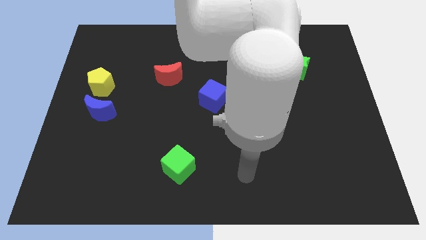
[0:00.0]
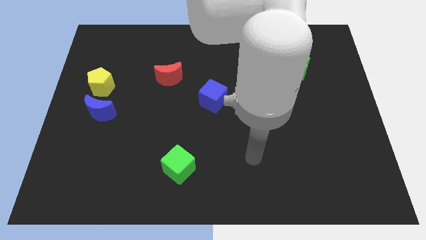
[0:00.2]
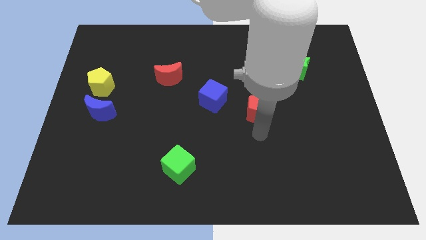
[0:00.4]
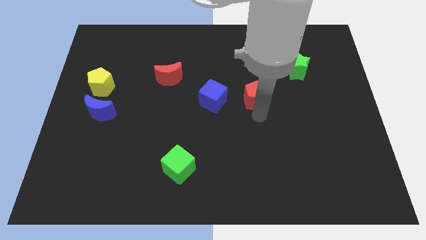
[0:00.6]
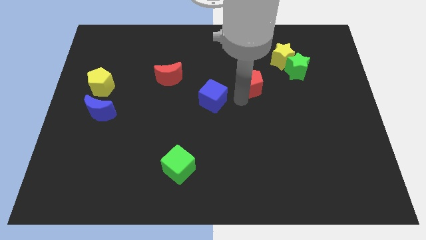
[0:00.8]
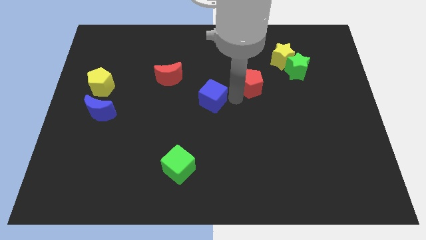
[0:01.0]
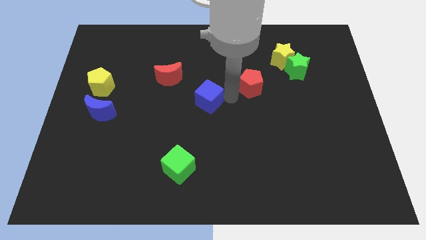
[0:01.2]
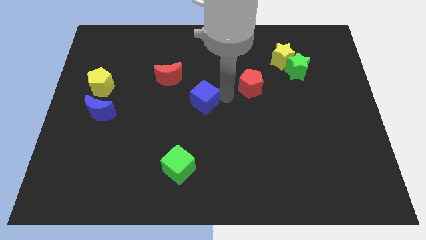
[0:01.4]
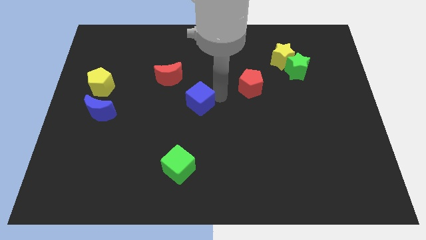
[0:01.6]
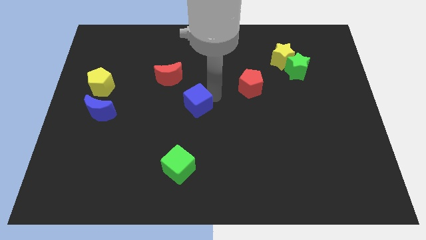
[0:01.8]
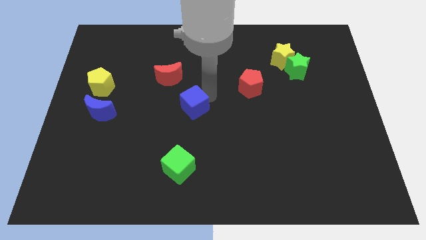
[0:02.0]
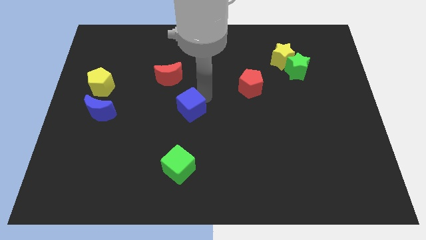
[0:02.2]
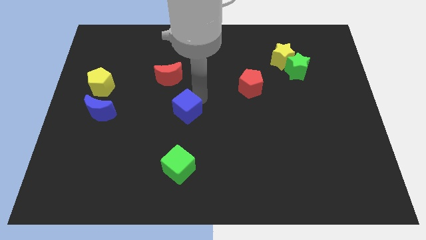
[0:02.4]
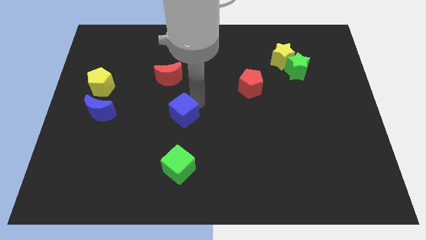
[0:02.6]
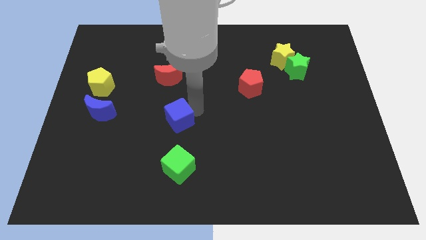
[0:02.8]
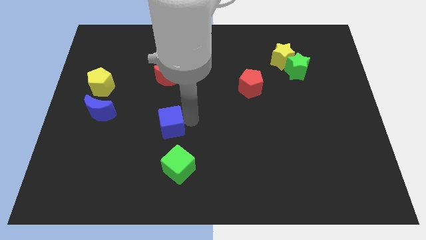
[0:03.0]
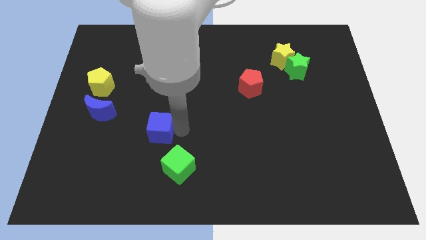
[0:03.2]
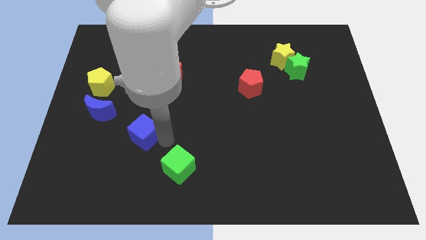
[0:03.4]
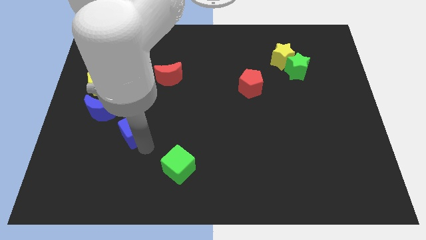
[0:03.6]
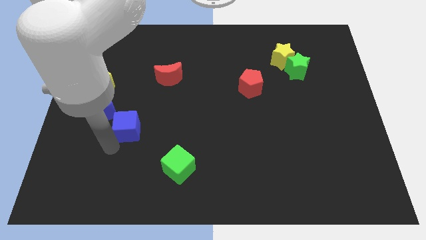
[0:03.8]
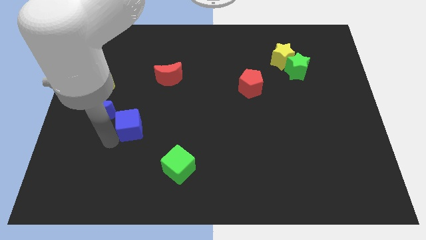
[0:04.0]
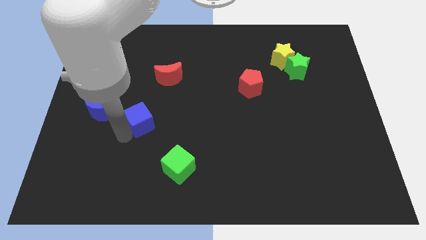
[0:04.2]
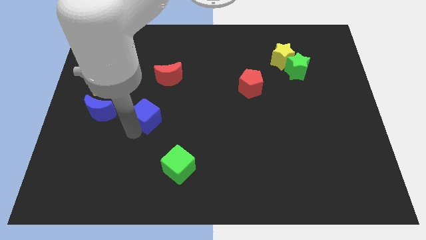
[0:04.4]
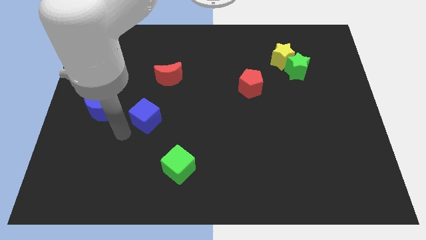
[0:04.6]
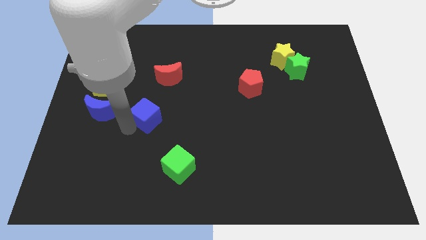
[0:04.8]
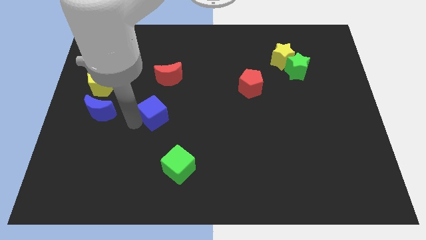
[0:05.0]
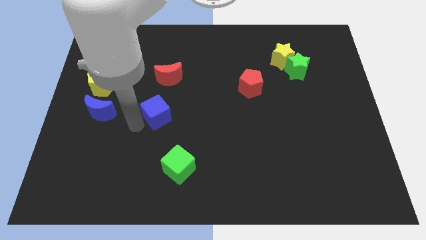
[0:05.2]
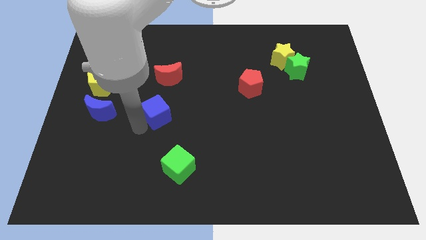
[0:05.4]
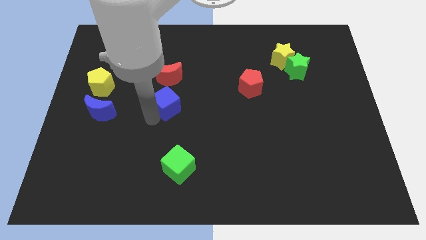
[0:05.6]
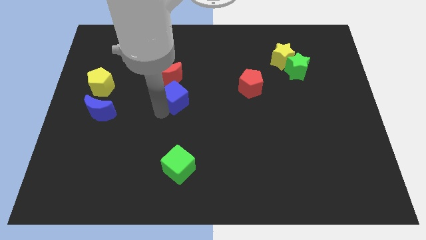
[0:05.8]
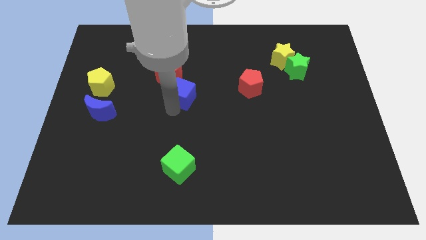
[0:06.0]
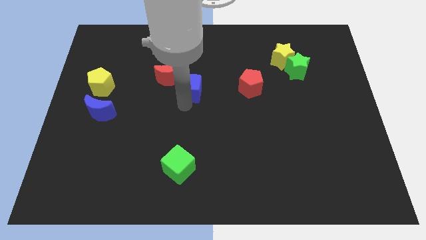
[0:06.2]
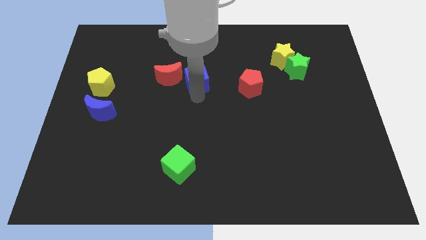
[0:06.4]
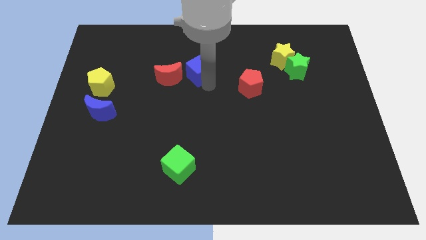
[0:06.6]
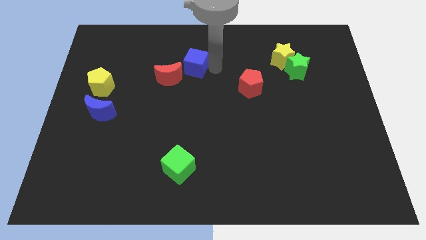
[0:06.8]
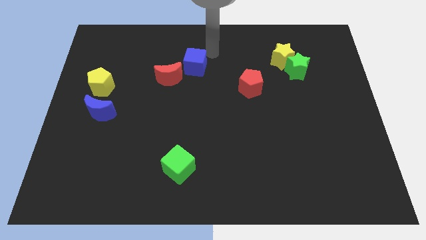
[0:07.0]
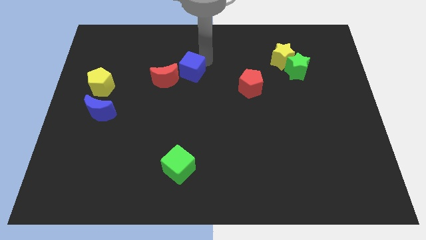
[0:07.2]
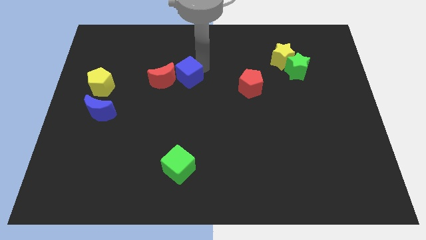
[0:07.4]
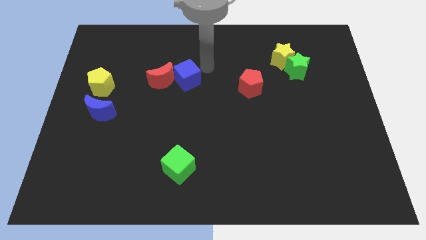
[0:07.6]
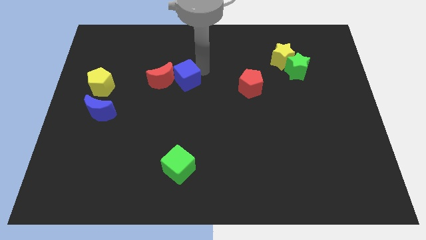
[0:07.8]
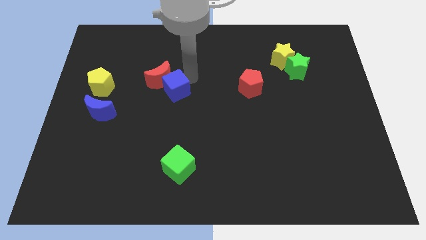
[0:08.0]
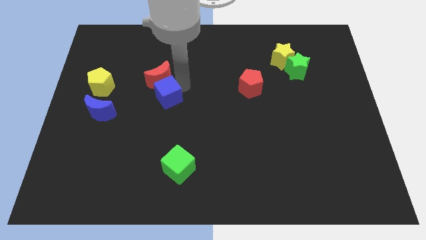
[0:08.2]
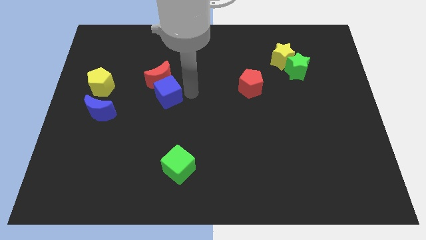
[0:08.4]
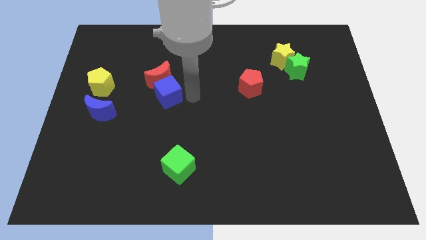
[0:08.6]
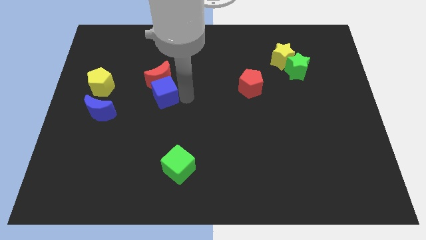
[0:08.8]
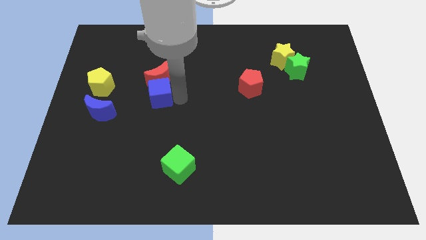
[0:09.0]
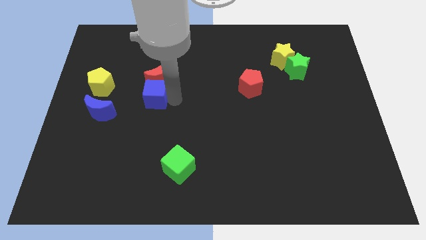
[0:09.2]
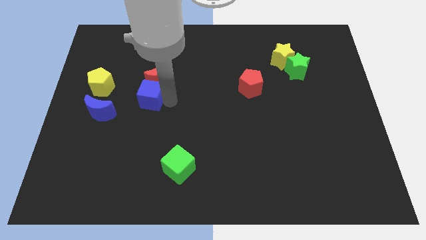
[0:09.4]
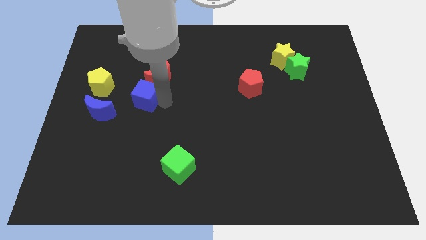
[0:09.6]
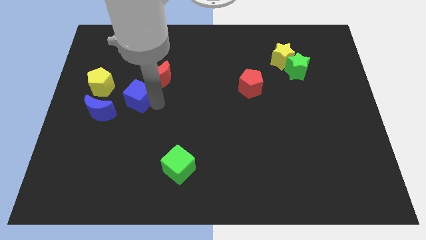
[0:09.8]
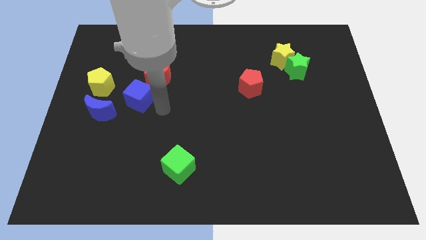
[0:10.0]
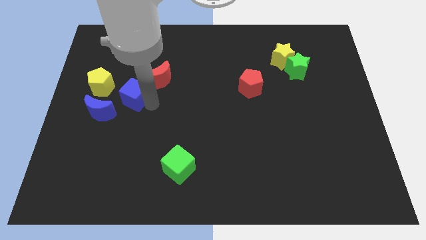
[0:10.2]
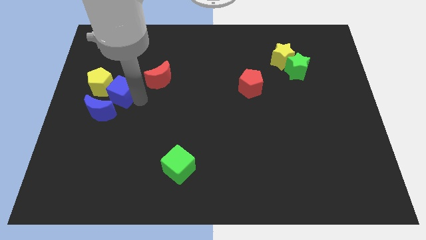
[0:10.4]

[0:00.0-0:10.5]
move the blue cube next to the yellow pentagon

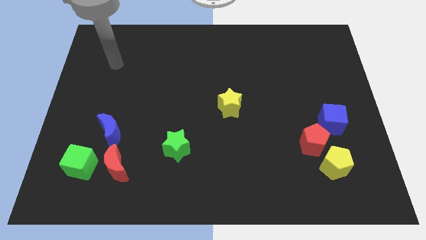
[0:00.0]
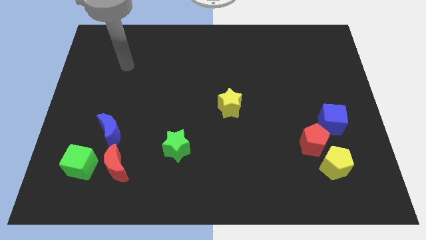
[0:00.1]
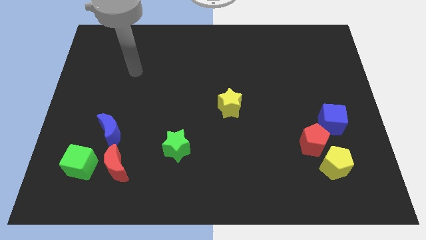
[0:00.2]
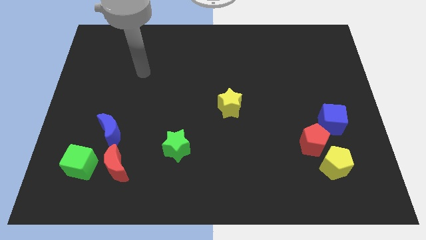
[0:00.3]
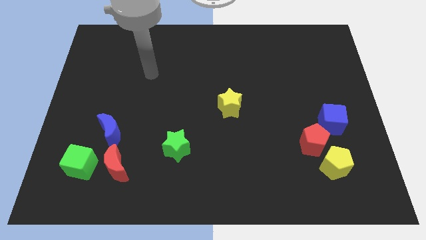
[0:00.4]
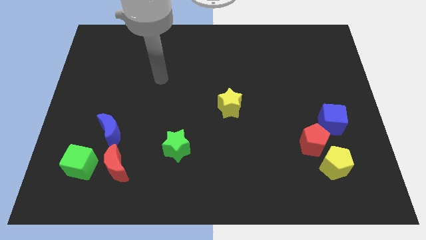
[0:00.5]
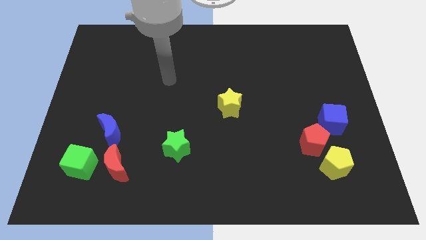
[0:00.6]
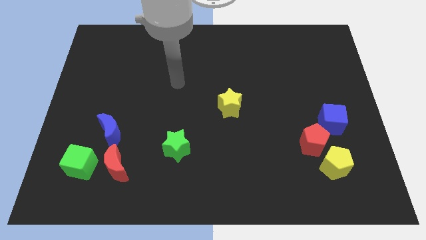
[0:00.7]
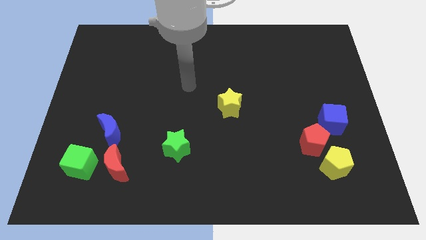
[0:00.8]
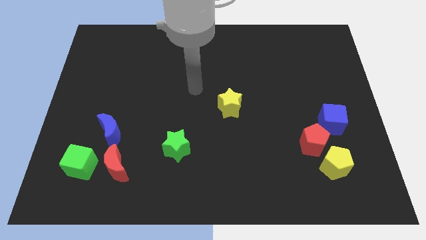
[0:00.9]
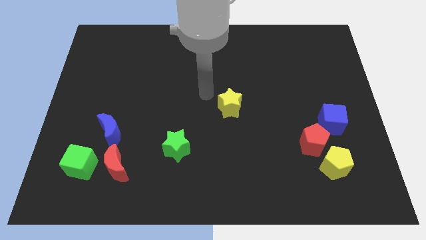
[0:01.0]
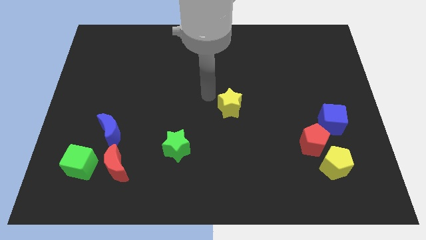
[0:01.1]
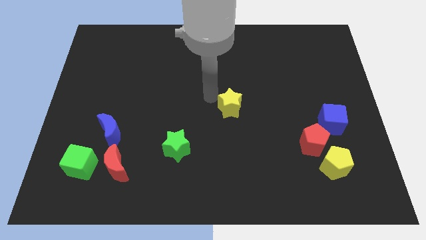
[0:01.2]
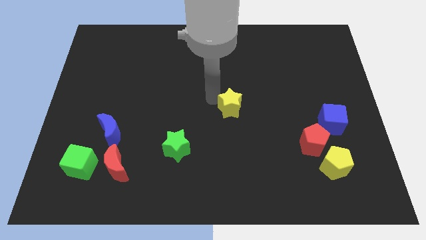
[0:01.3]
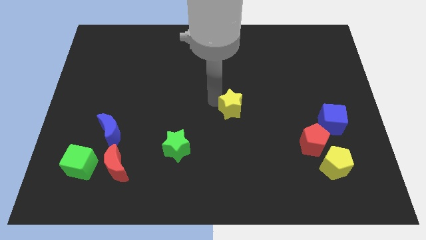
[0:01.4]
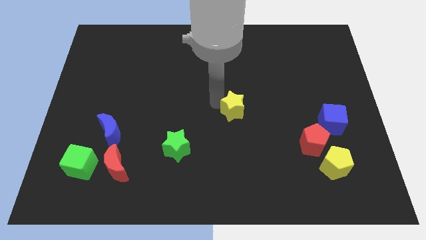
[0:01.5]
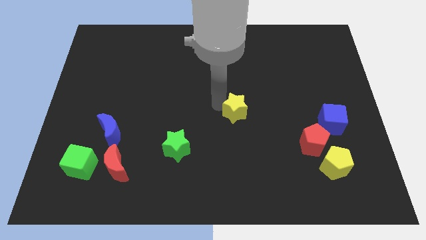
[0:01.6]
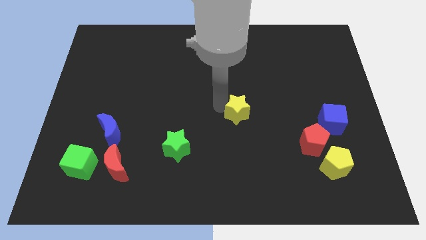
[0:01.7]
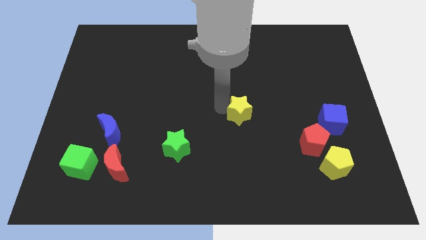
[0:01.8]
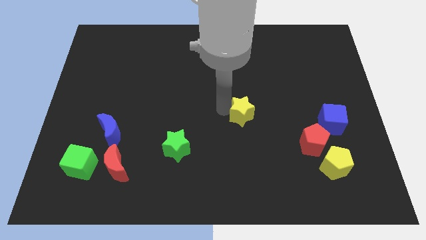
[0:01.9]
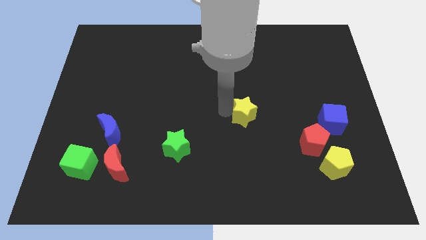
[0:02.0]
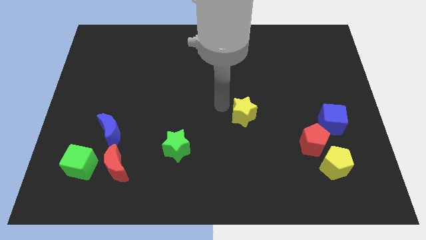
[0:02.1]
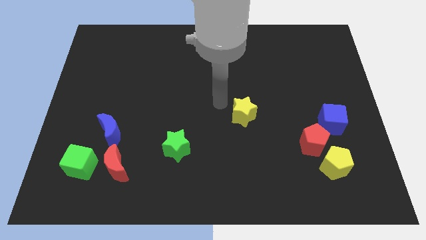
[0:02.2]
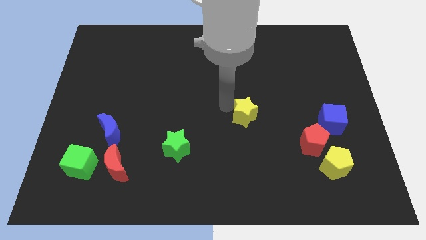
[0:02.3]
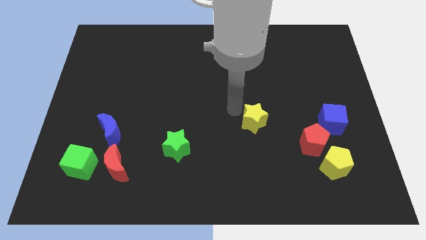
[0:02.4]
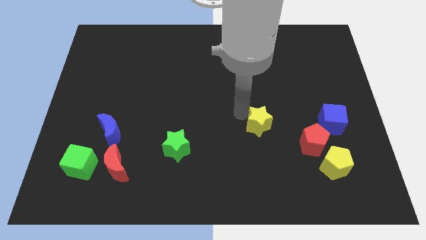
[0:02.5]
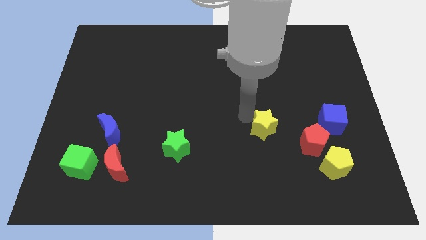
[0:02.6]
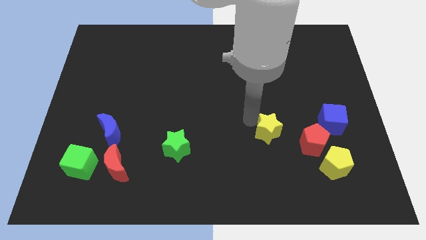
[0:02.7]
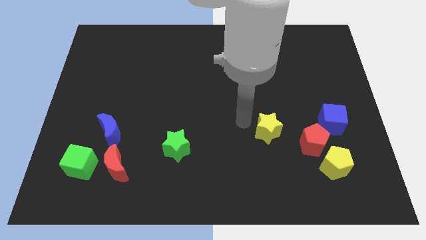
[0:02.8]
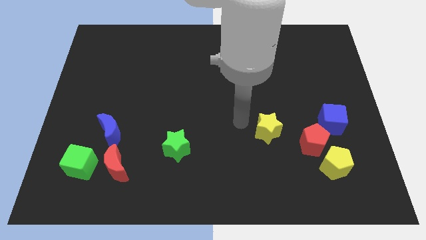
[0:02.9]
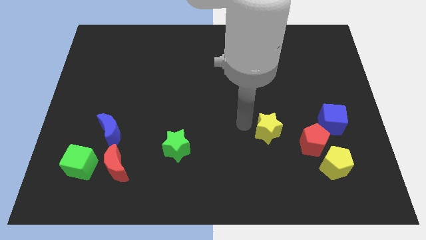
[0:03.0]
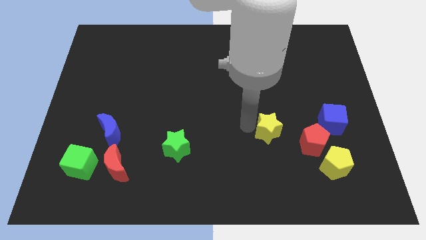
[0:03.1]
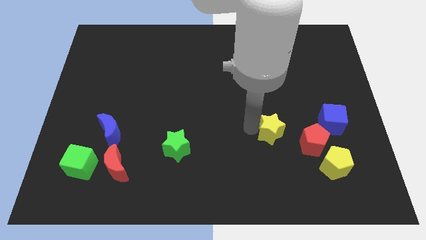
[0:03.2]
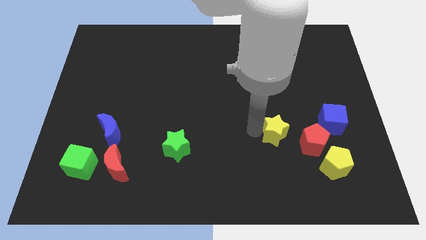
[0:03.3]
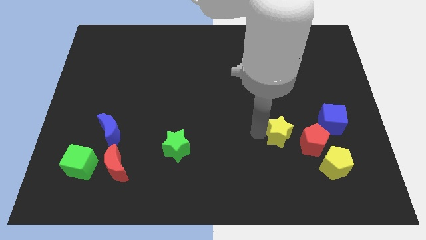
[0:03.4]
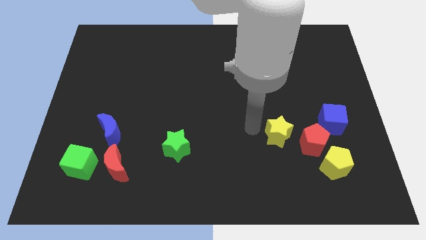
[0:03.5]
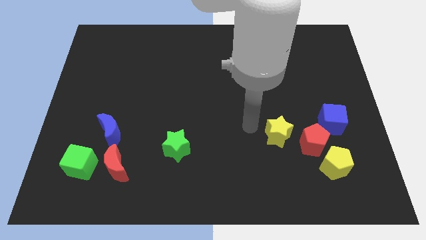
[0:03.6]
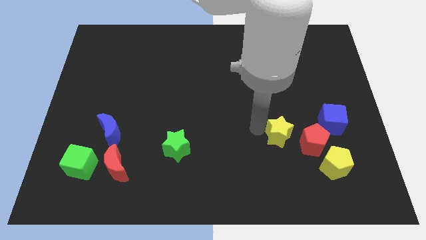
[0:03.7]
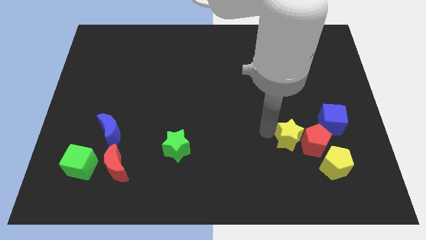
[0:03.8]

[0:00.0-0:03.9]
move the yellow star to the red pentagon
